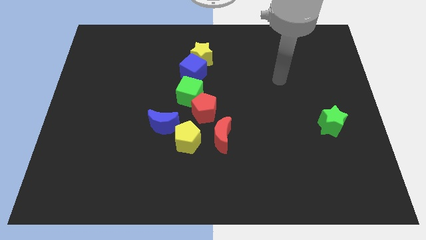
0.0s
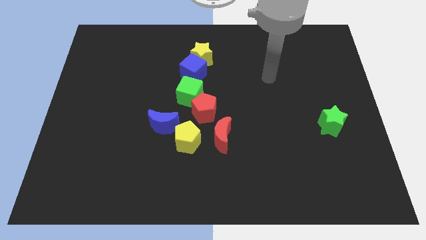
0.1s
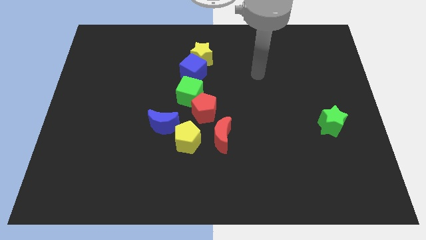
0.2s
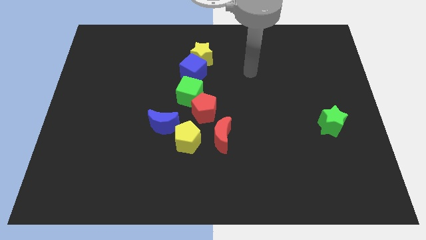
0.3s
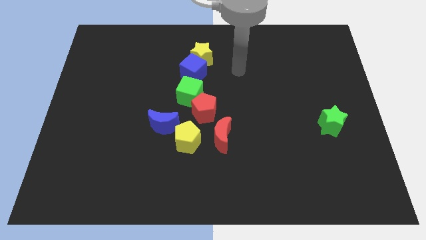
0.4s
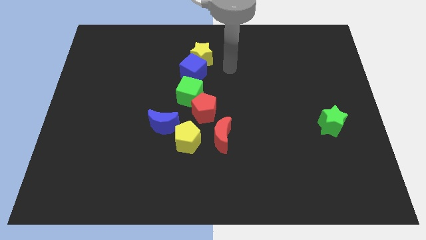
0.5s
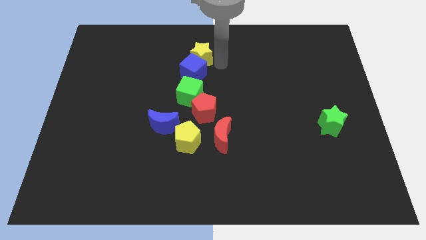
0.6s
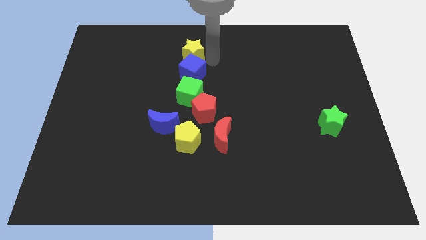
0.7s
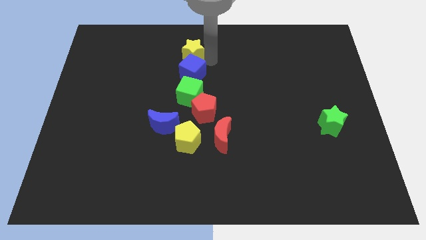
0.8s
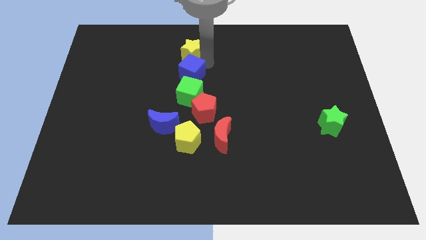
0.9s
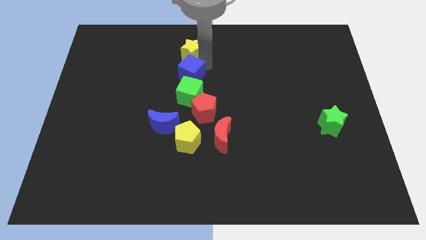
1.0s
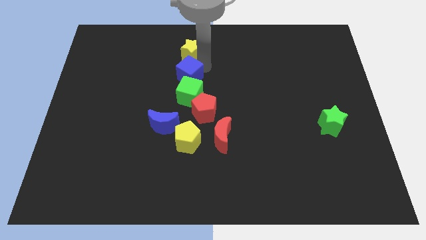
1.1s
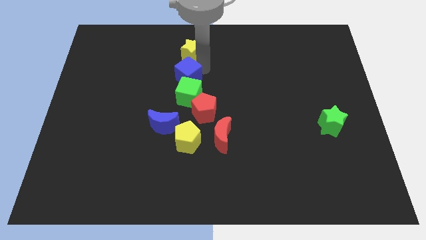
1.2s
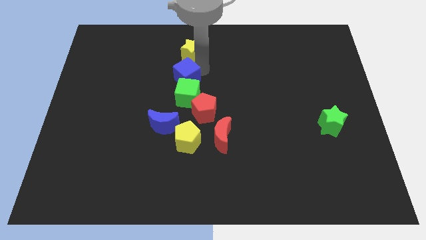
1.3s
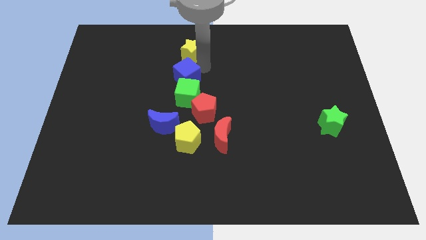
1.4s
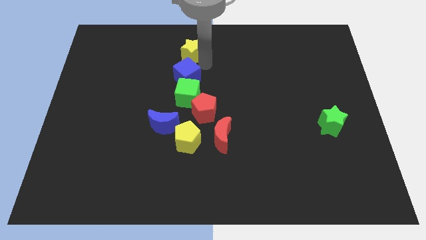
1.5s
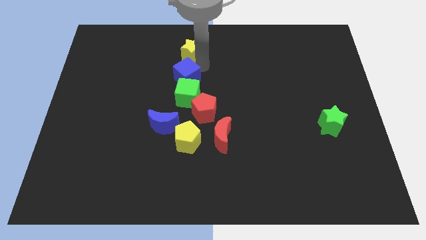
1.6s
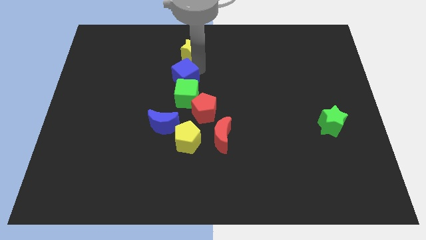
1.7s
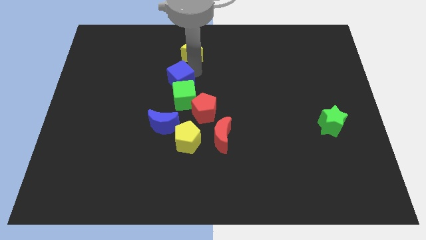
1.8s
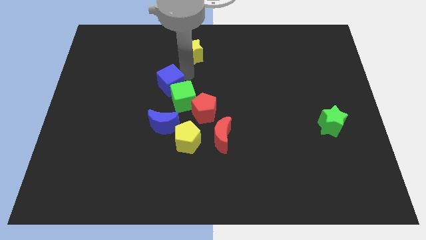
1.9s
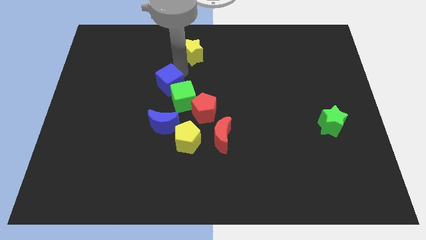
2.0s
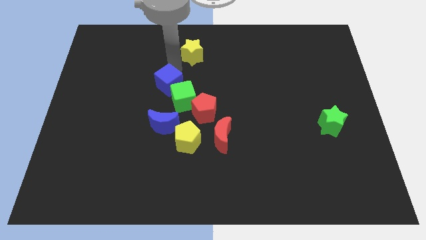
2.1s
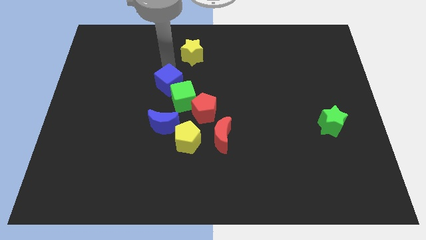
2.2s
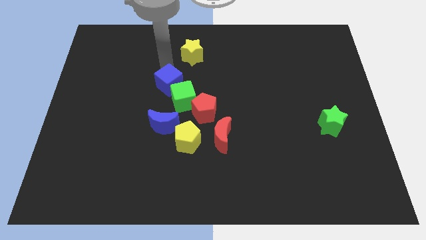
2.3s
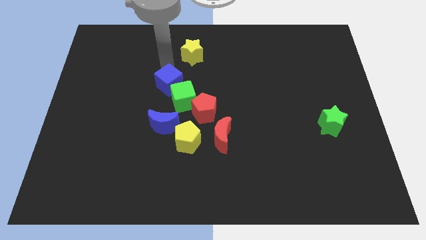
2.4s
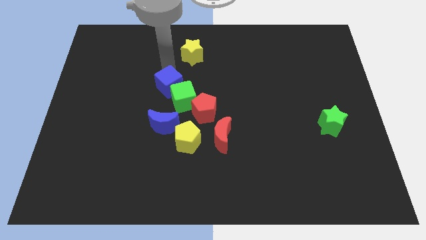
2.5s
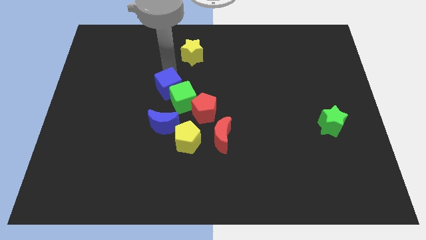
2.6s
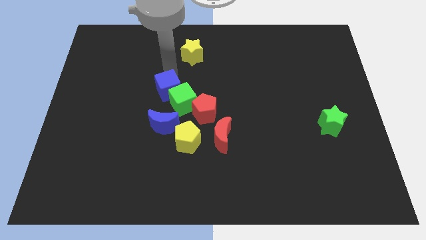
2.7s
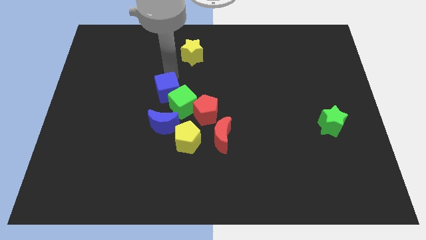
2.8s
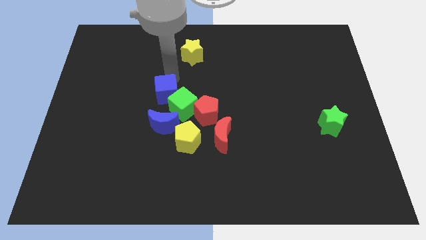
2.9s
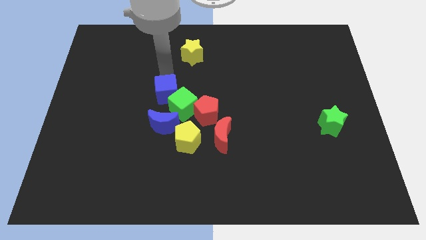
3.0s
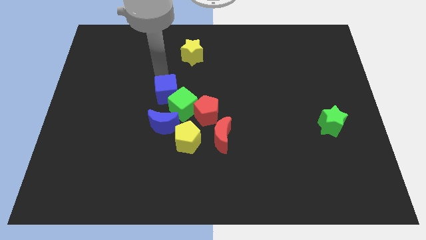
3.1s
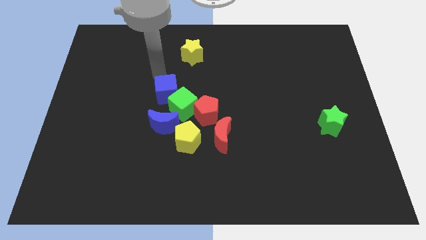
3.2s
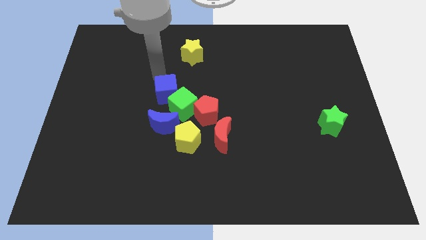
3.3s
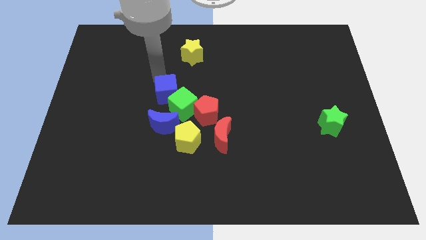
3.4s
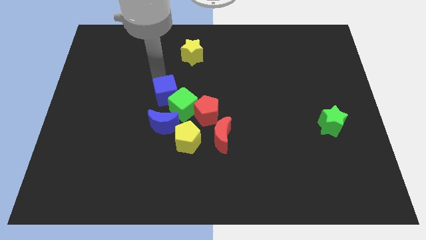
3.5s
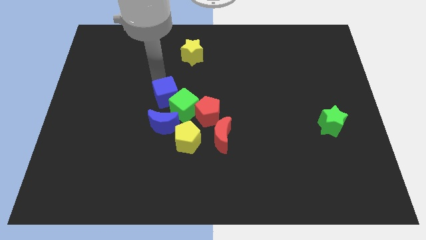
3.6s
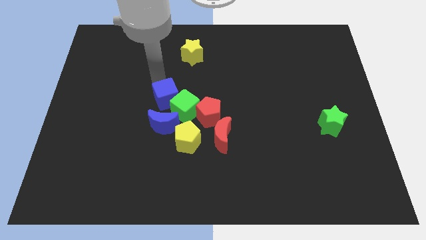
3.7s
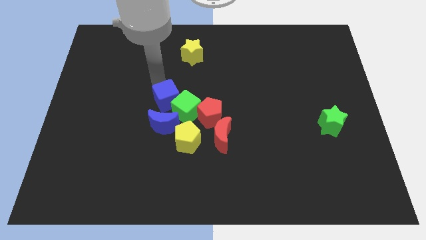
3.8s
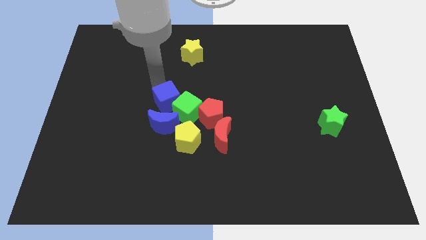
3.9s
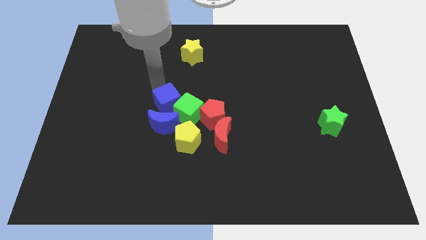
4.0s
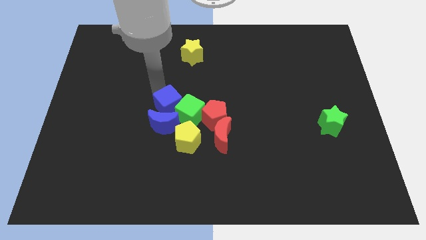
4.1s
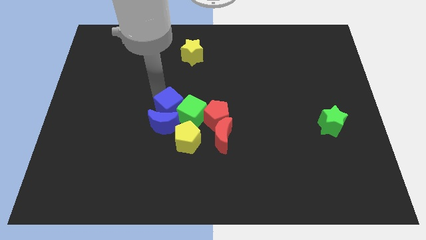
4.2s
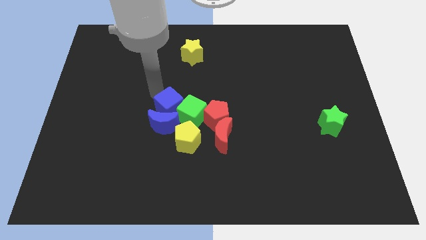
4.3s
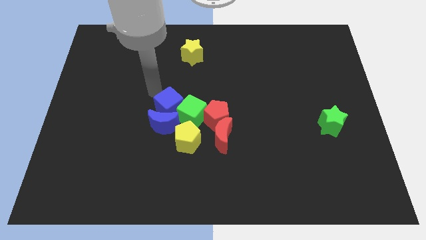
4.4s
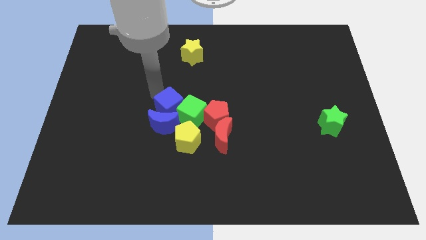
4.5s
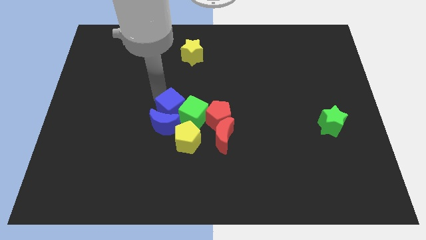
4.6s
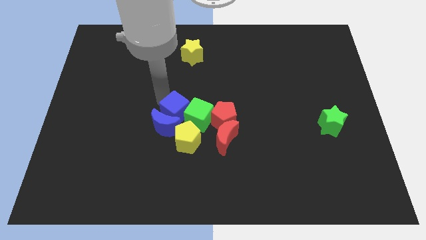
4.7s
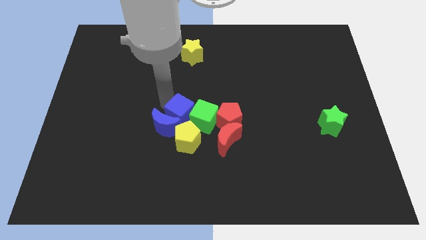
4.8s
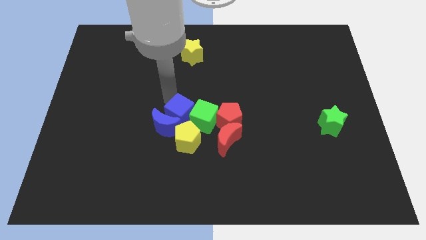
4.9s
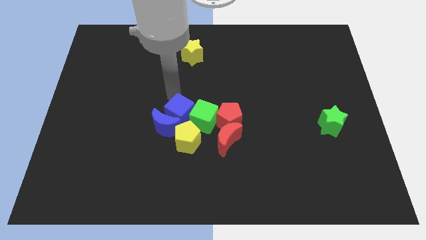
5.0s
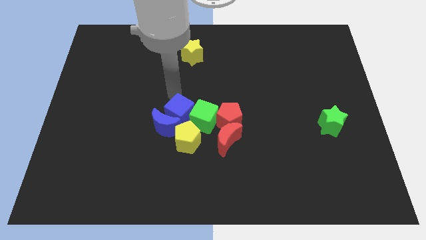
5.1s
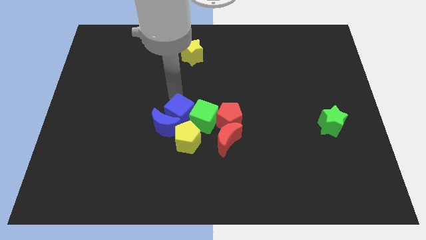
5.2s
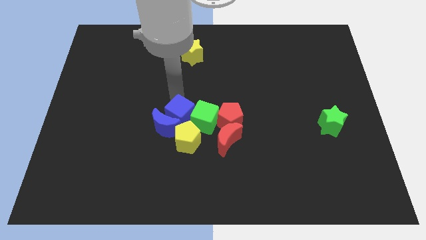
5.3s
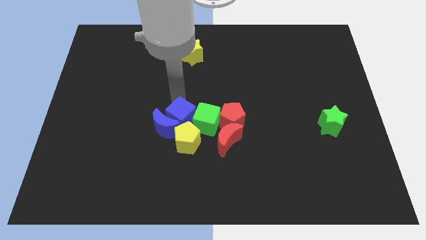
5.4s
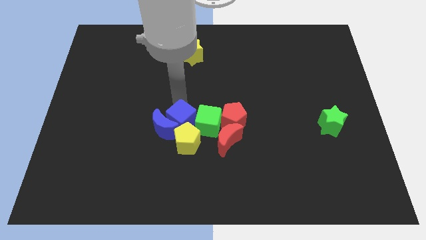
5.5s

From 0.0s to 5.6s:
move the blue cube close to the yellow pentagon

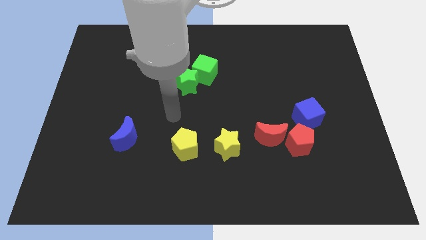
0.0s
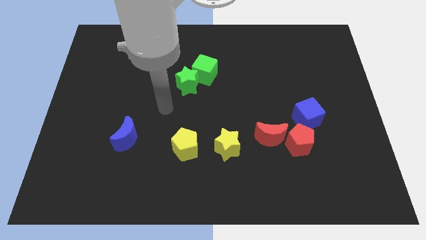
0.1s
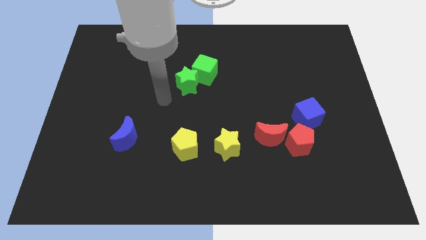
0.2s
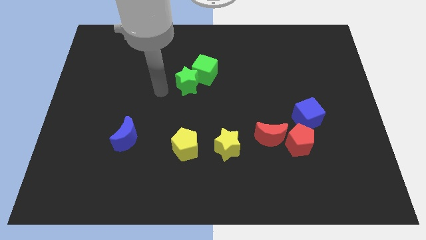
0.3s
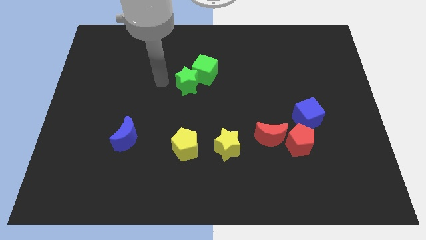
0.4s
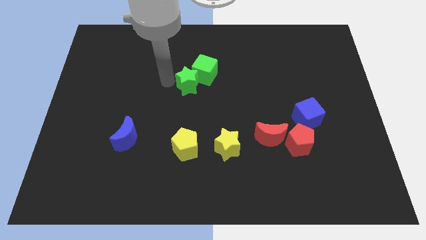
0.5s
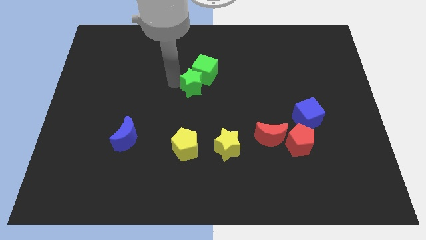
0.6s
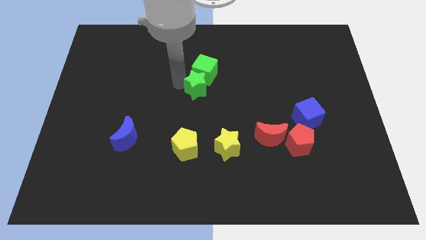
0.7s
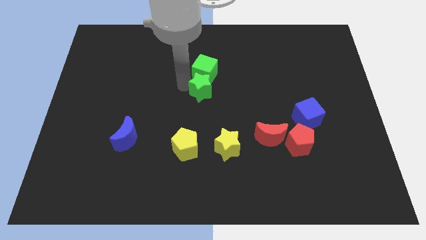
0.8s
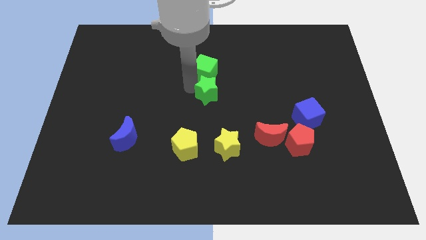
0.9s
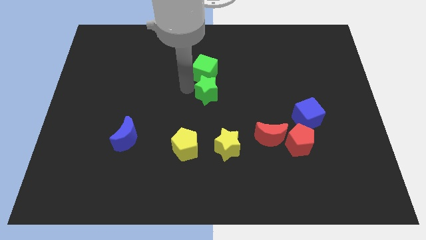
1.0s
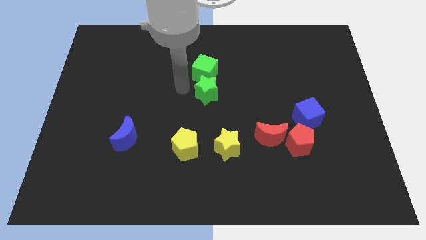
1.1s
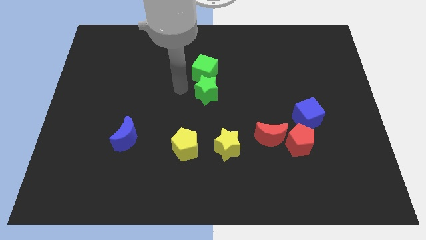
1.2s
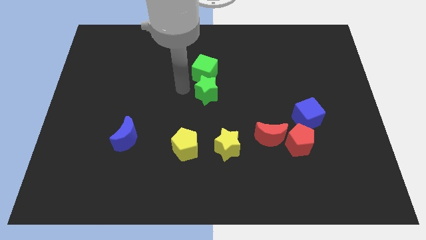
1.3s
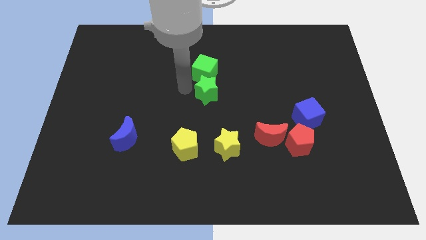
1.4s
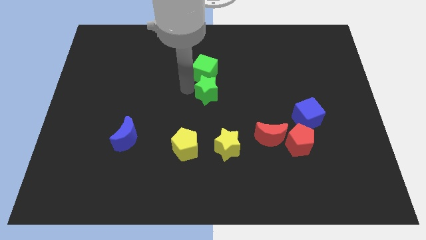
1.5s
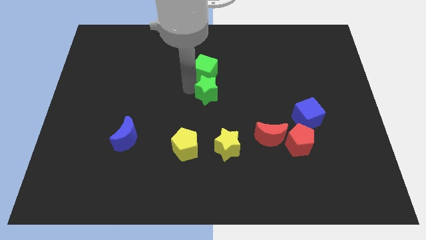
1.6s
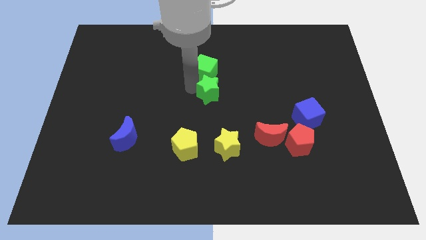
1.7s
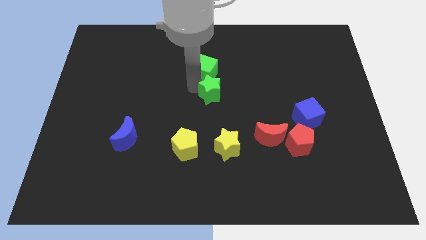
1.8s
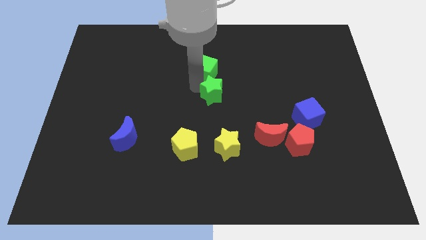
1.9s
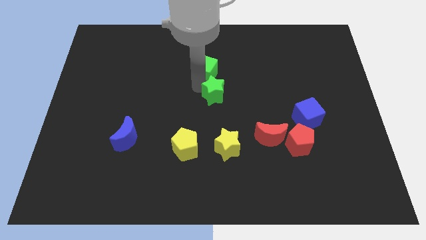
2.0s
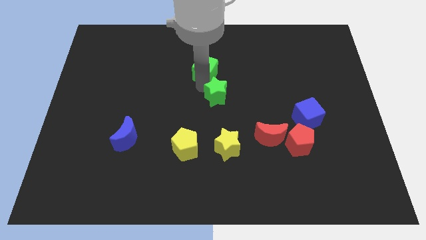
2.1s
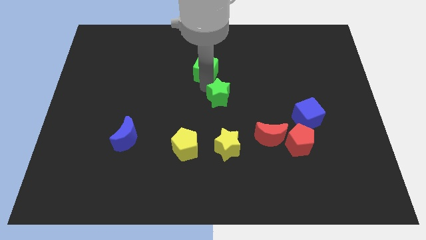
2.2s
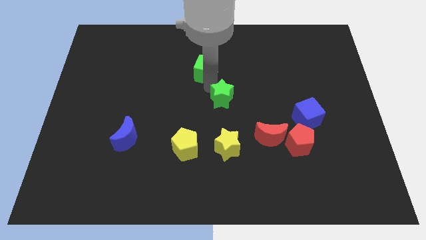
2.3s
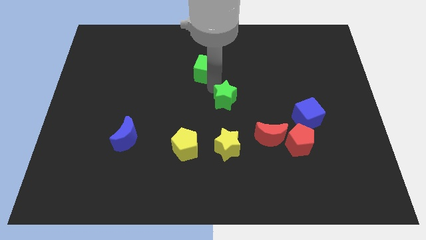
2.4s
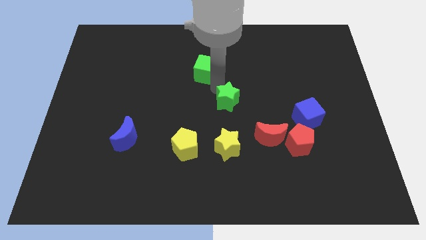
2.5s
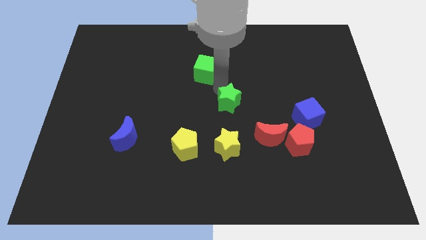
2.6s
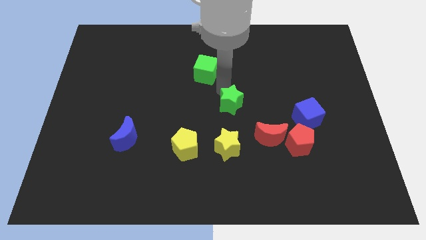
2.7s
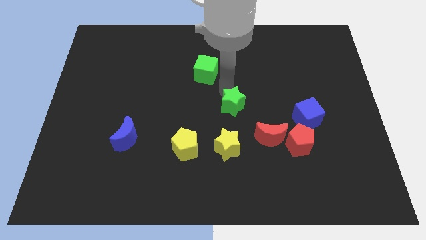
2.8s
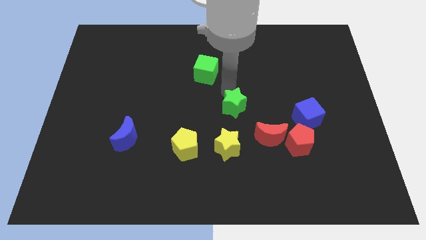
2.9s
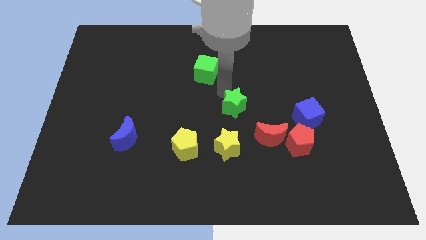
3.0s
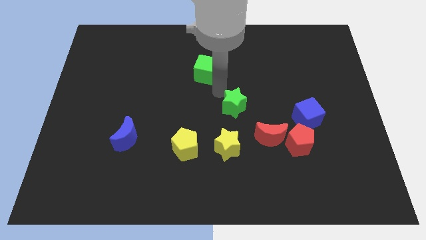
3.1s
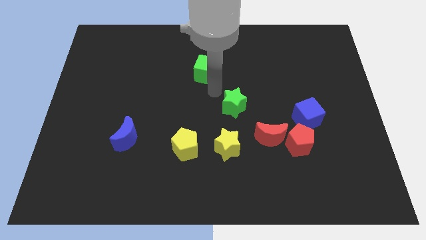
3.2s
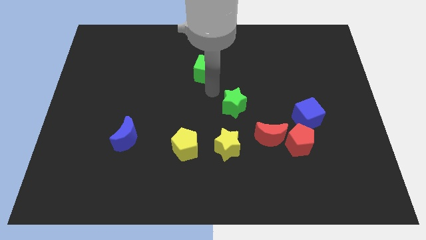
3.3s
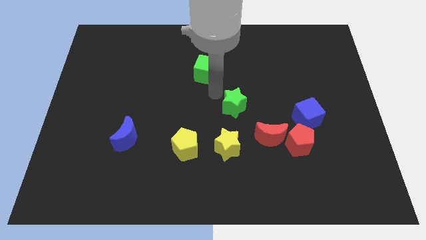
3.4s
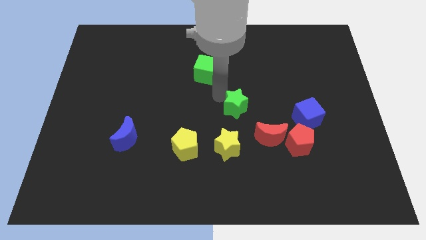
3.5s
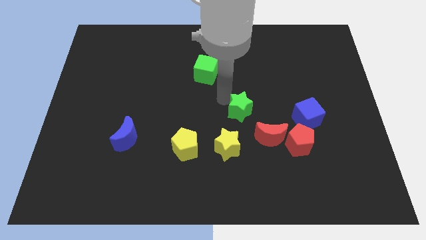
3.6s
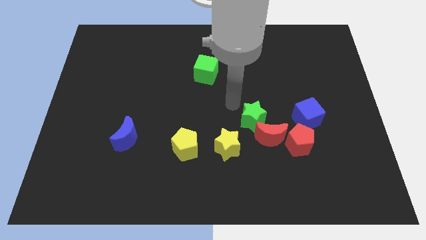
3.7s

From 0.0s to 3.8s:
push the green star to the red moon
